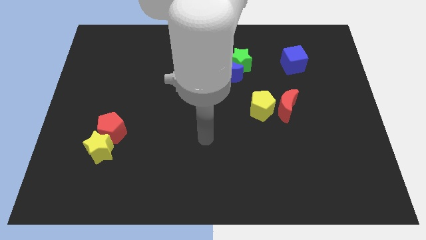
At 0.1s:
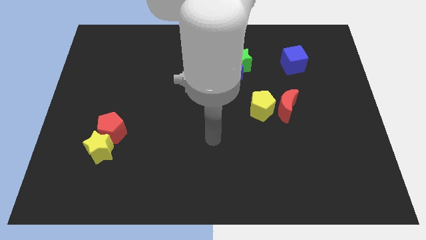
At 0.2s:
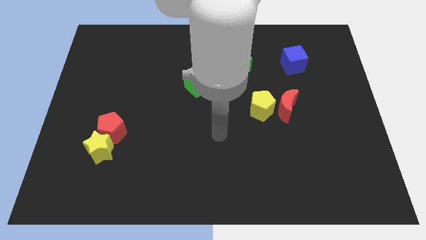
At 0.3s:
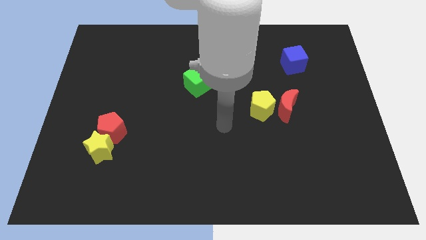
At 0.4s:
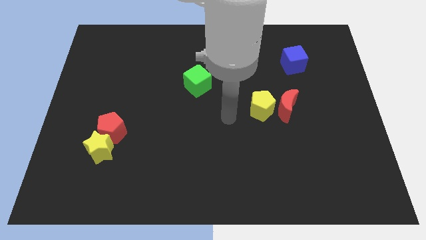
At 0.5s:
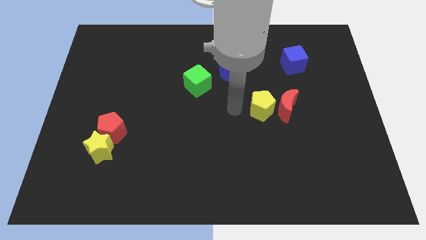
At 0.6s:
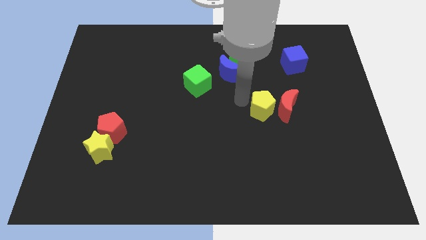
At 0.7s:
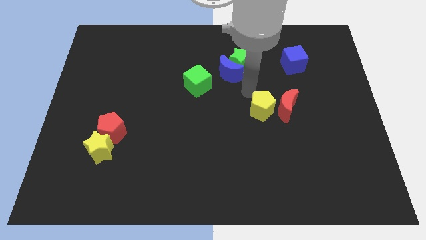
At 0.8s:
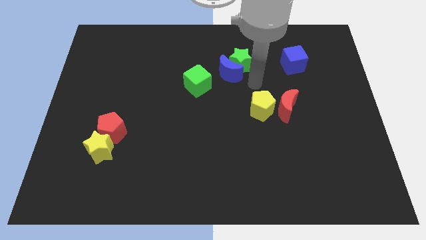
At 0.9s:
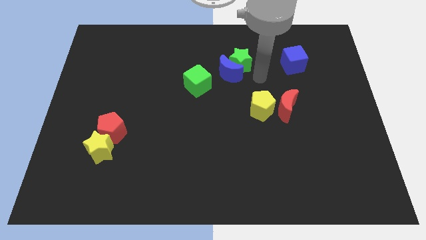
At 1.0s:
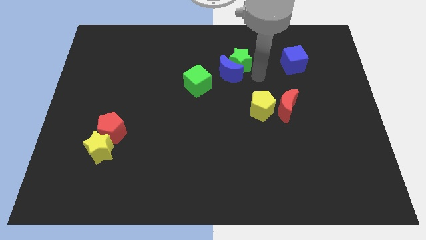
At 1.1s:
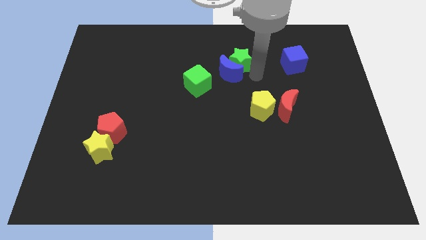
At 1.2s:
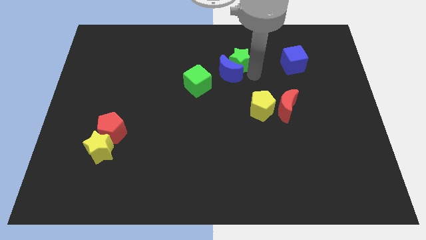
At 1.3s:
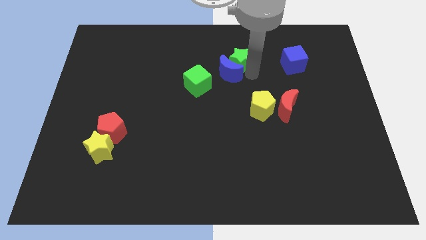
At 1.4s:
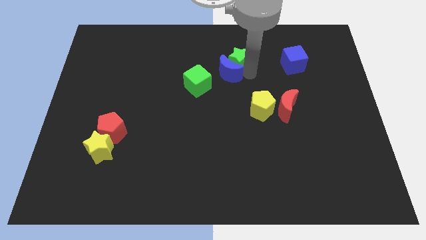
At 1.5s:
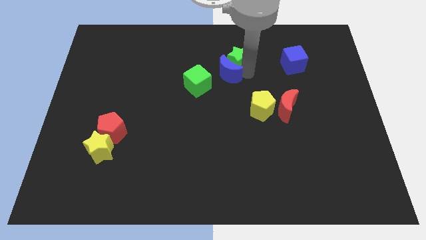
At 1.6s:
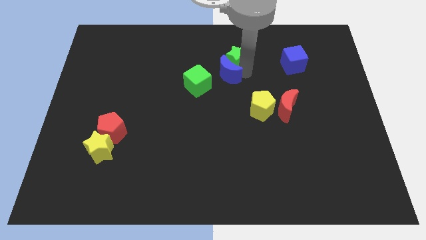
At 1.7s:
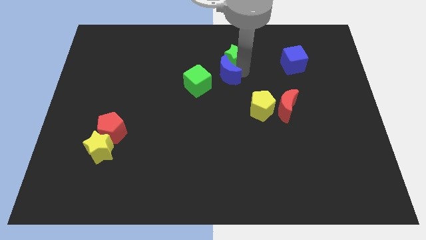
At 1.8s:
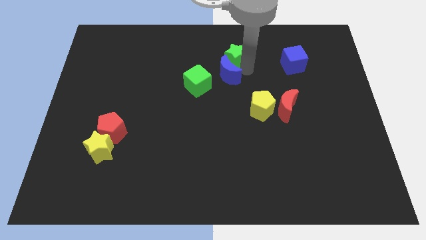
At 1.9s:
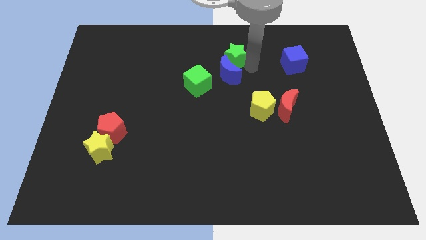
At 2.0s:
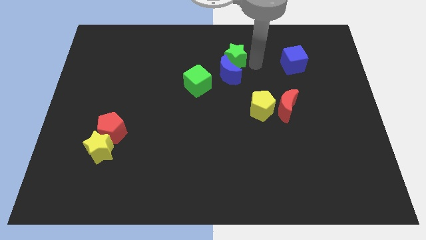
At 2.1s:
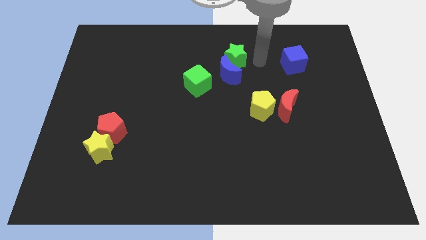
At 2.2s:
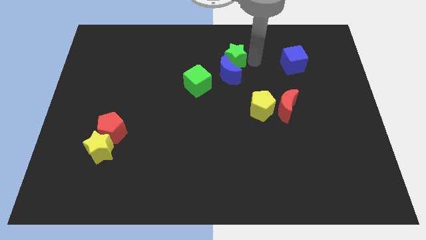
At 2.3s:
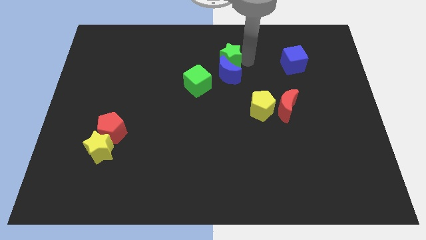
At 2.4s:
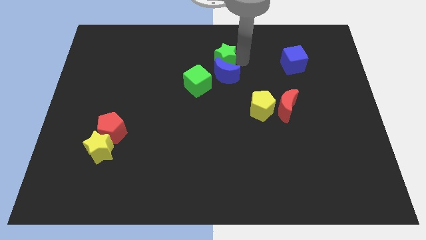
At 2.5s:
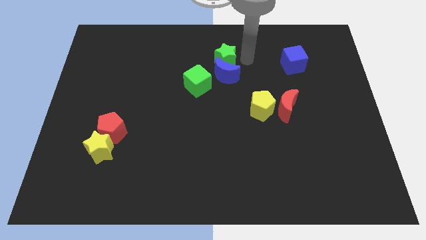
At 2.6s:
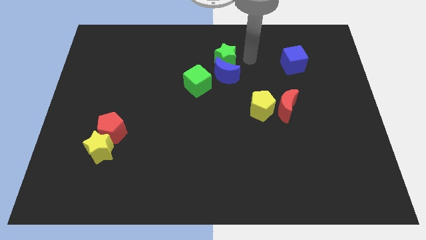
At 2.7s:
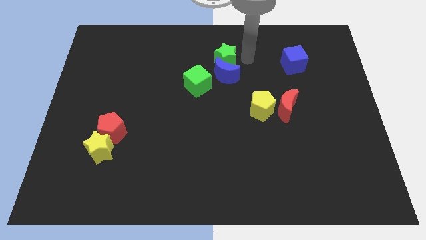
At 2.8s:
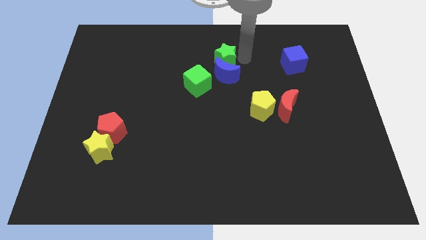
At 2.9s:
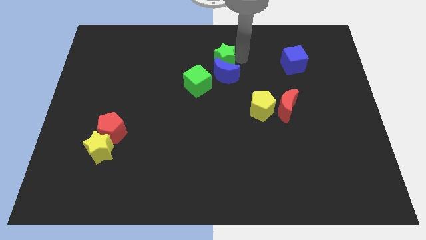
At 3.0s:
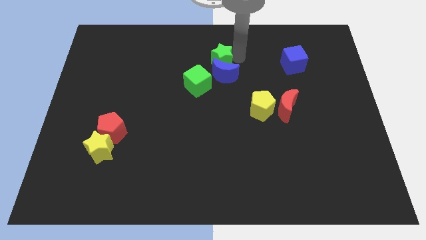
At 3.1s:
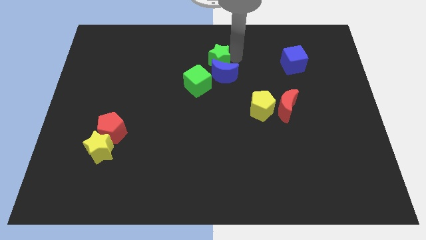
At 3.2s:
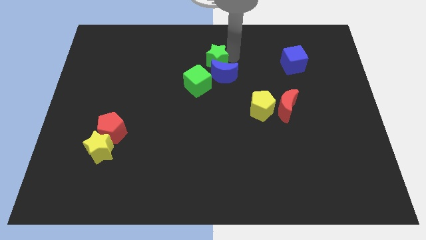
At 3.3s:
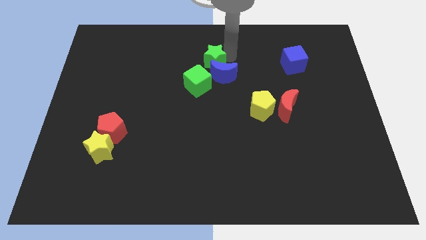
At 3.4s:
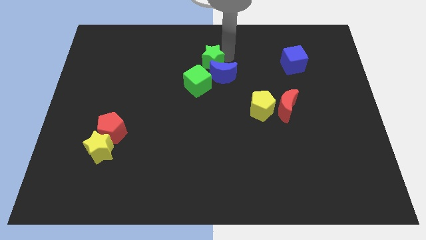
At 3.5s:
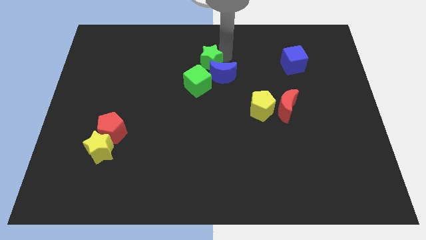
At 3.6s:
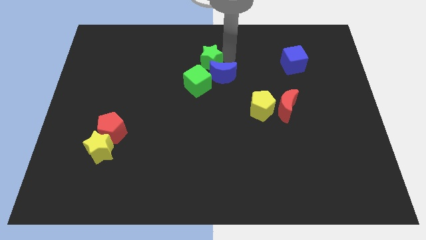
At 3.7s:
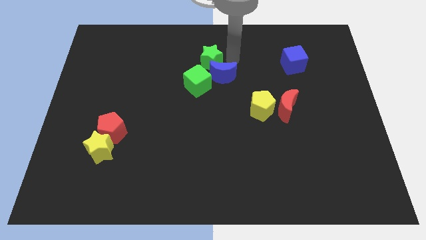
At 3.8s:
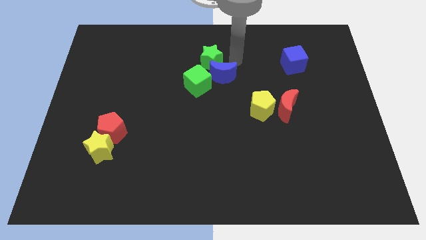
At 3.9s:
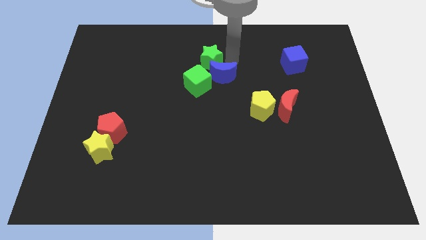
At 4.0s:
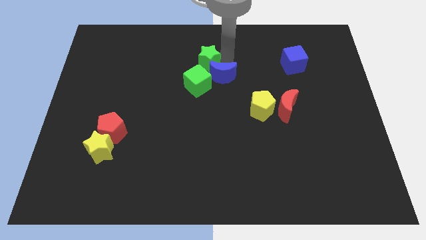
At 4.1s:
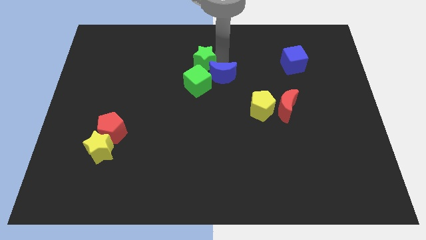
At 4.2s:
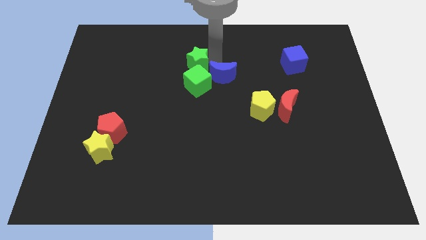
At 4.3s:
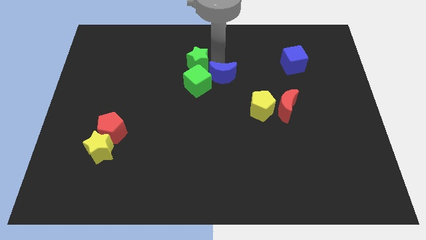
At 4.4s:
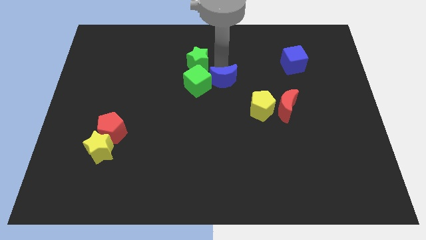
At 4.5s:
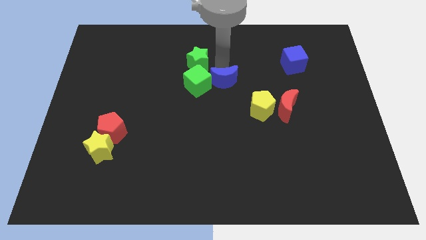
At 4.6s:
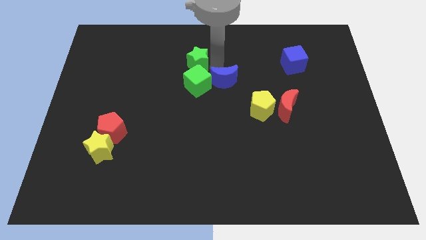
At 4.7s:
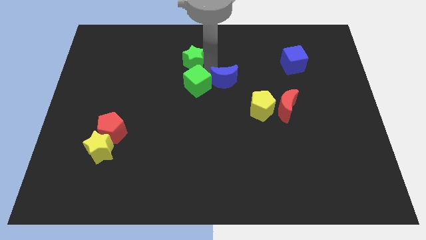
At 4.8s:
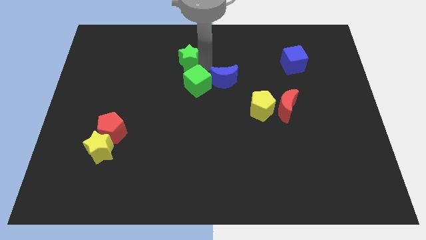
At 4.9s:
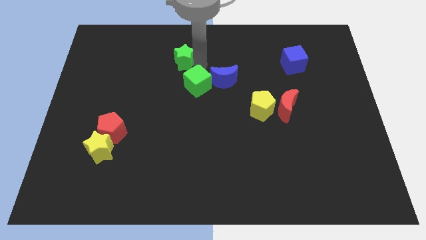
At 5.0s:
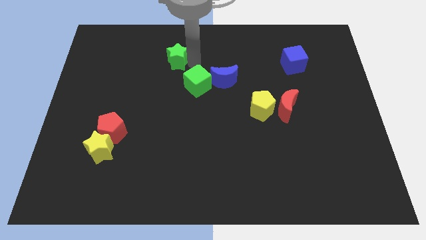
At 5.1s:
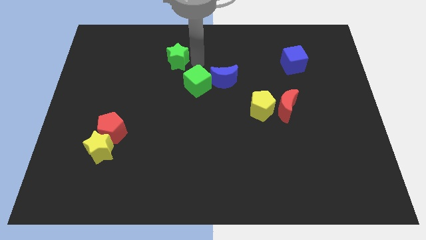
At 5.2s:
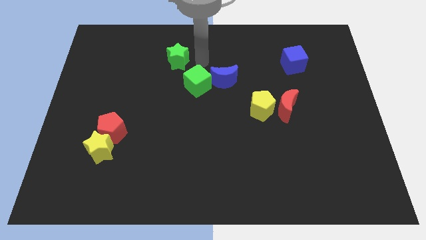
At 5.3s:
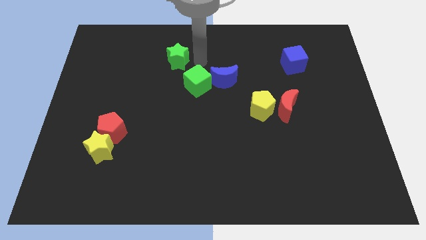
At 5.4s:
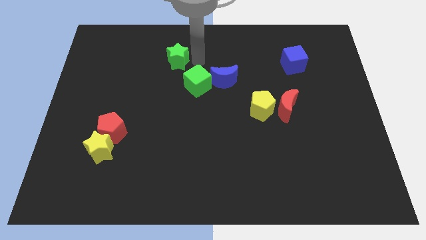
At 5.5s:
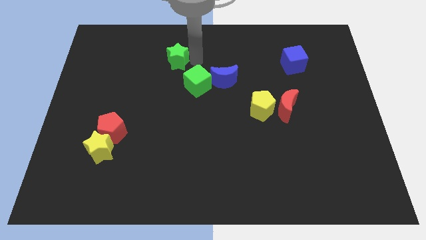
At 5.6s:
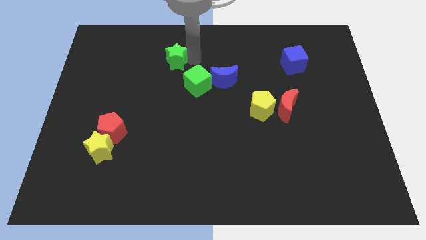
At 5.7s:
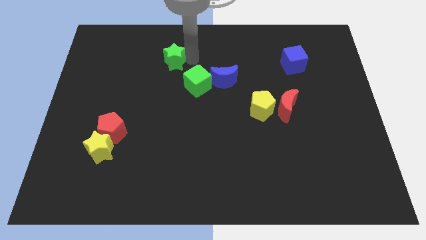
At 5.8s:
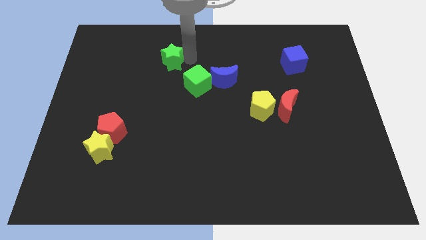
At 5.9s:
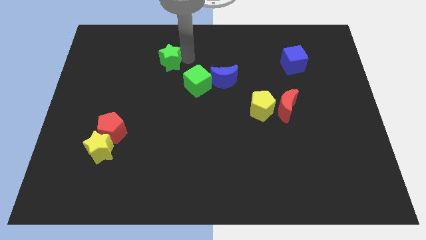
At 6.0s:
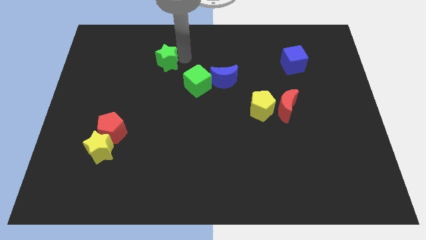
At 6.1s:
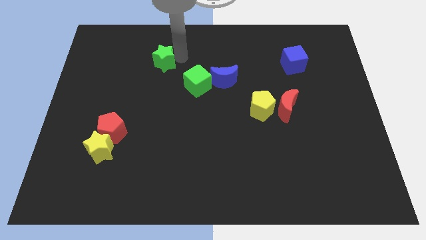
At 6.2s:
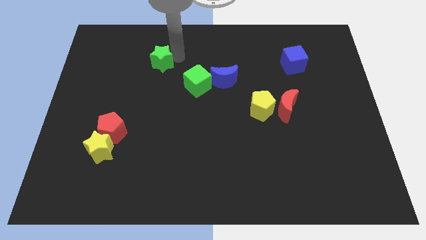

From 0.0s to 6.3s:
slide the green star to the left

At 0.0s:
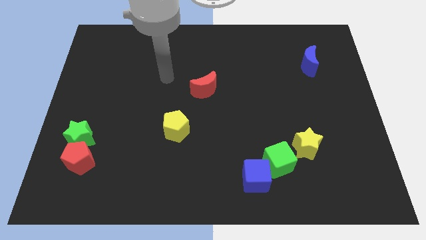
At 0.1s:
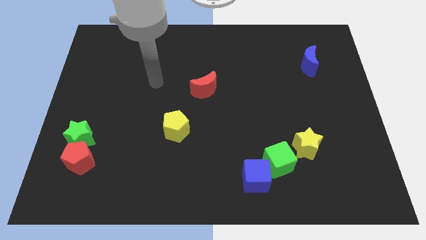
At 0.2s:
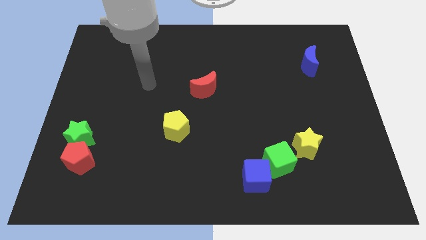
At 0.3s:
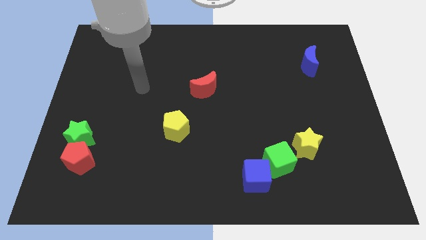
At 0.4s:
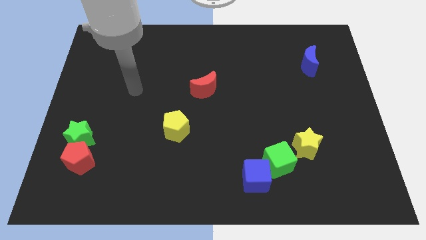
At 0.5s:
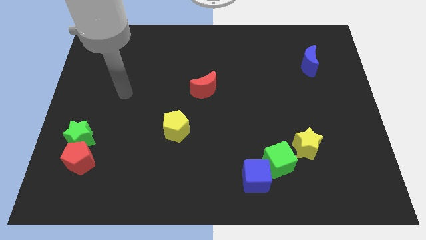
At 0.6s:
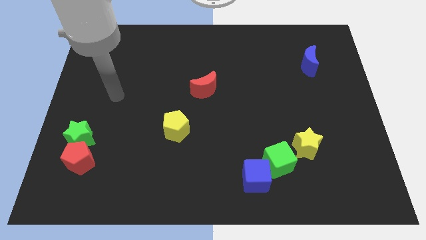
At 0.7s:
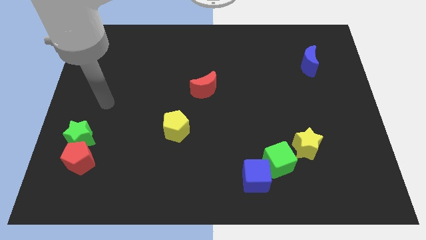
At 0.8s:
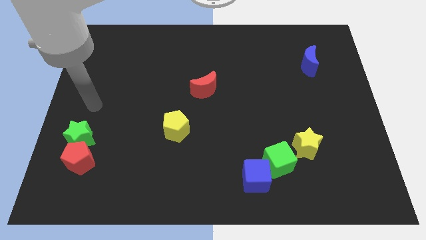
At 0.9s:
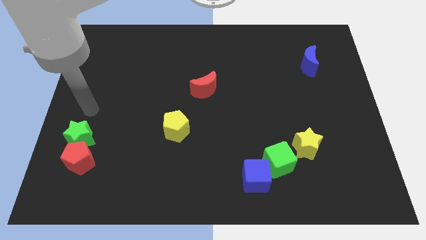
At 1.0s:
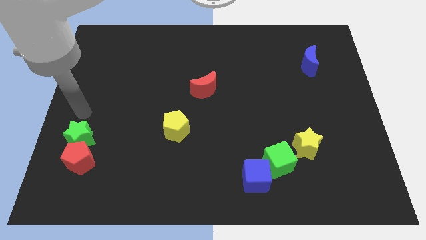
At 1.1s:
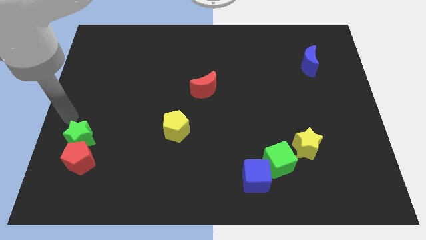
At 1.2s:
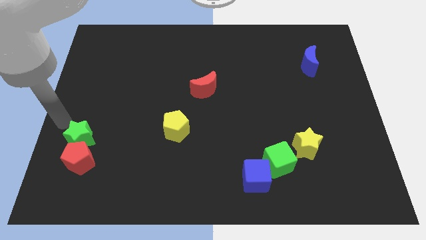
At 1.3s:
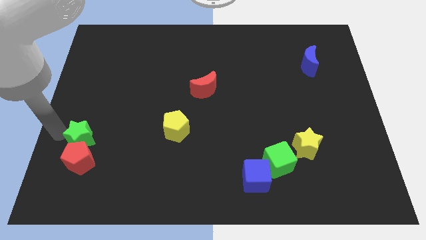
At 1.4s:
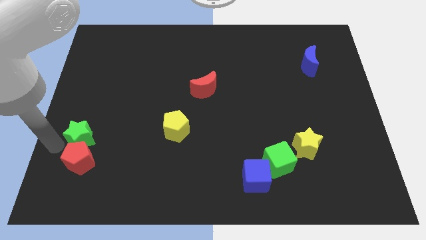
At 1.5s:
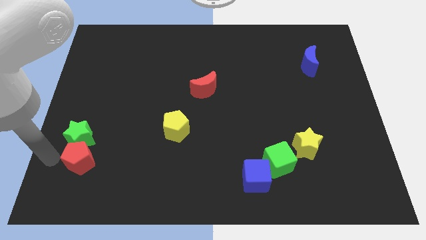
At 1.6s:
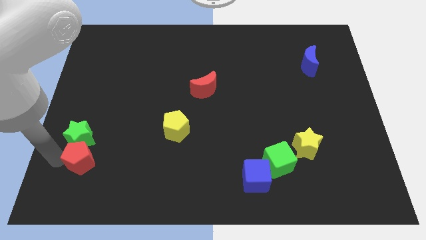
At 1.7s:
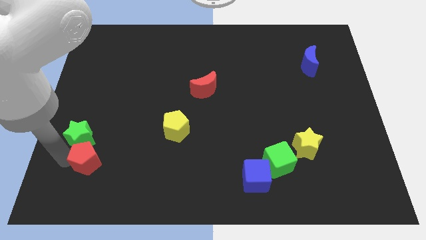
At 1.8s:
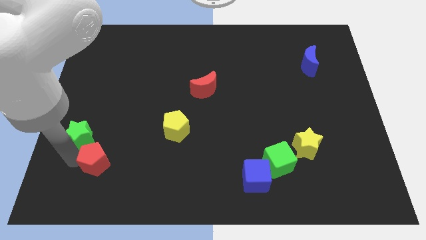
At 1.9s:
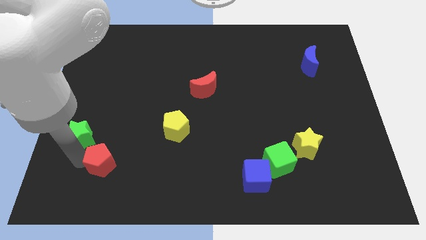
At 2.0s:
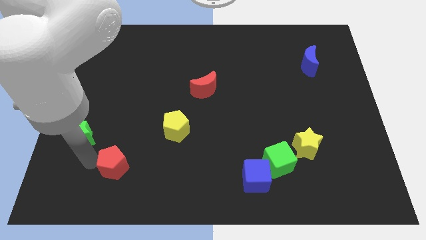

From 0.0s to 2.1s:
slide the red pentagon a little right
